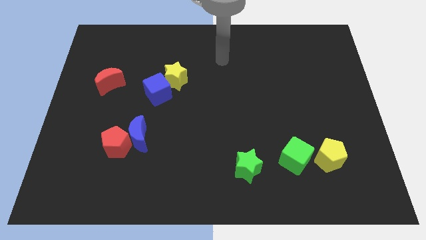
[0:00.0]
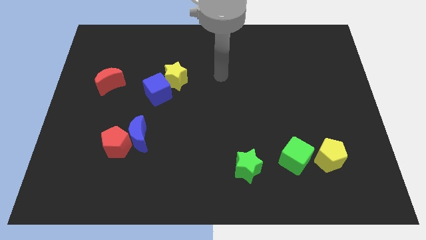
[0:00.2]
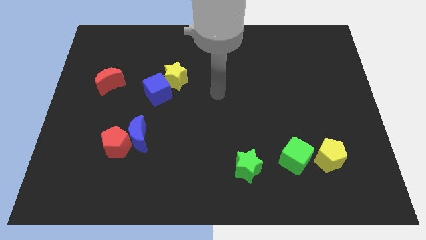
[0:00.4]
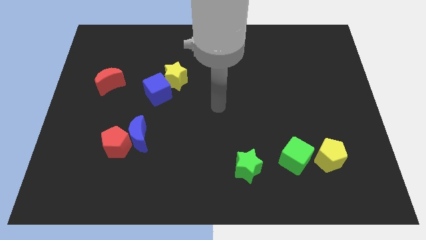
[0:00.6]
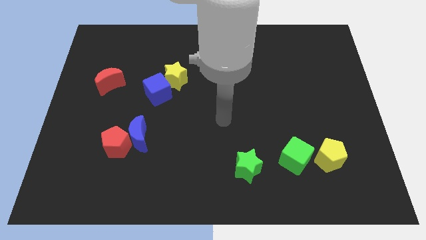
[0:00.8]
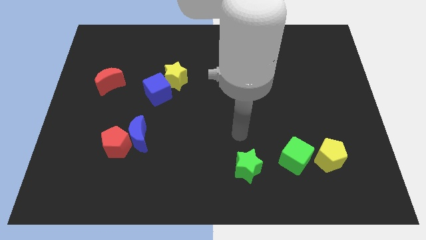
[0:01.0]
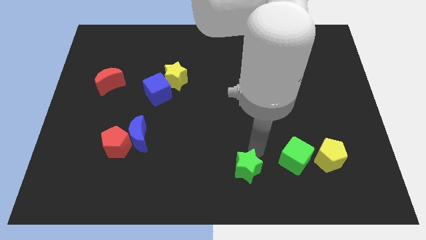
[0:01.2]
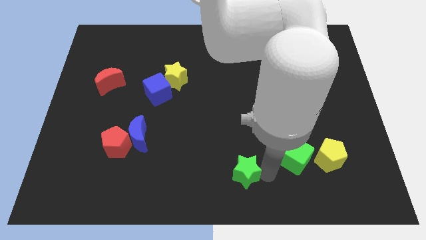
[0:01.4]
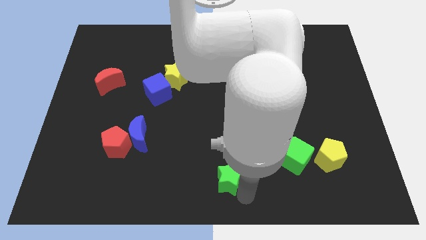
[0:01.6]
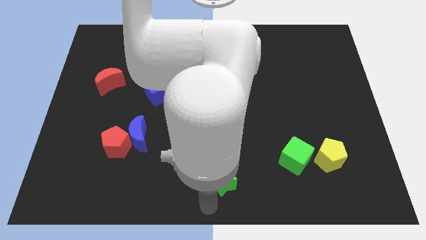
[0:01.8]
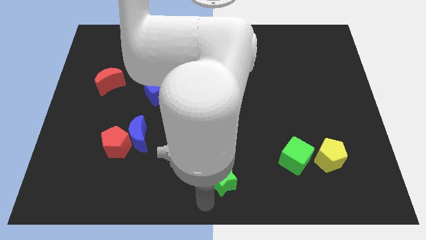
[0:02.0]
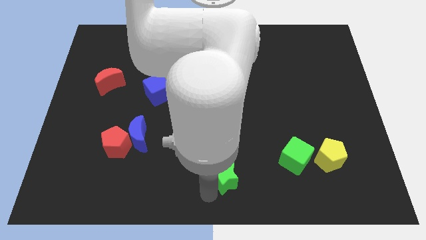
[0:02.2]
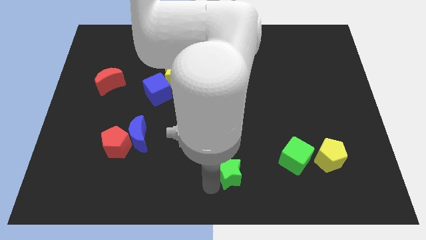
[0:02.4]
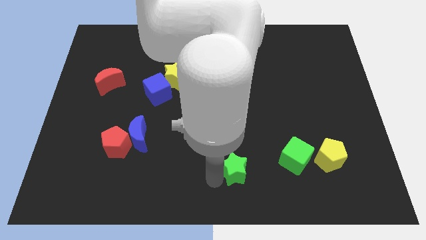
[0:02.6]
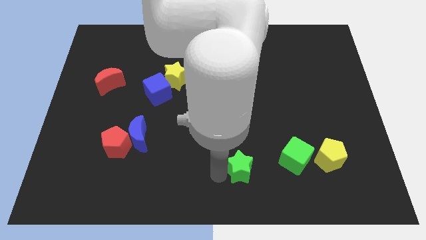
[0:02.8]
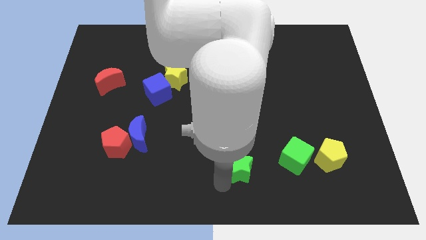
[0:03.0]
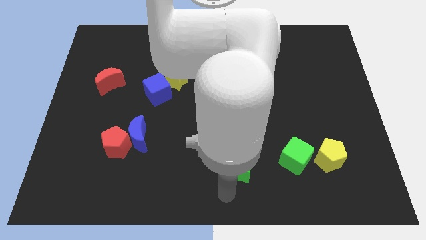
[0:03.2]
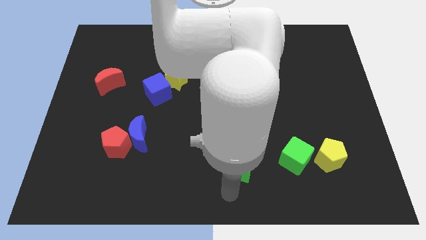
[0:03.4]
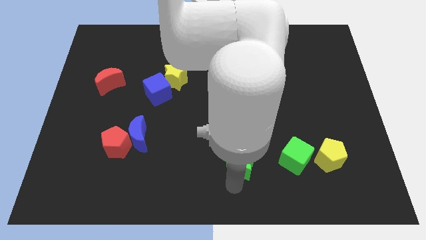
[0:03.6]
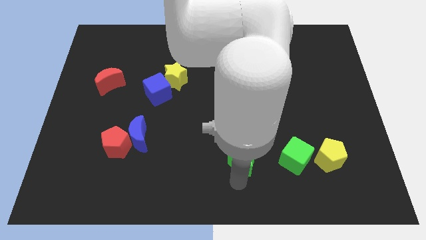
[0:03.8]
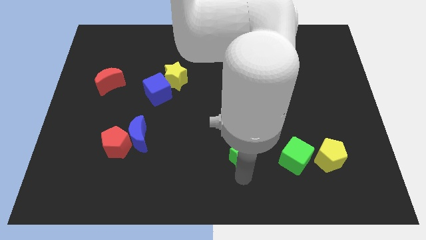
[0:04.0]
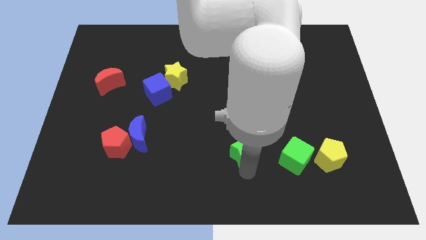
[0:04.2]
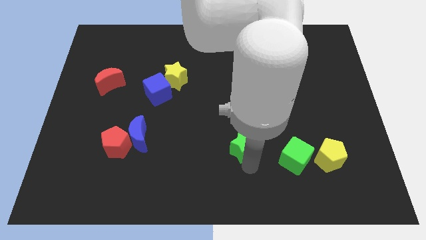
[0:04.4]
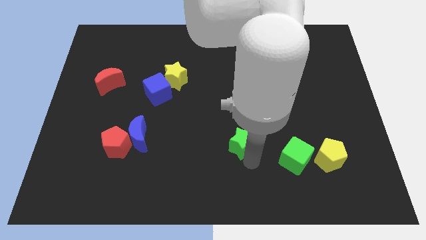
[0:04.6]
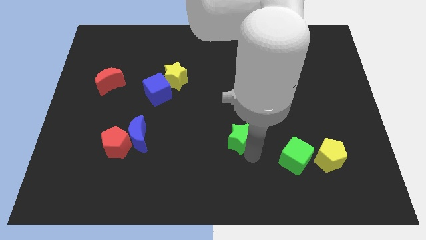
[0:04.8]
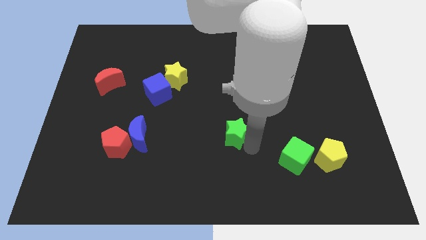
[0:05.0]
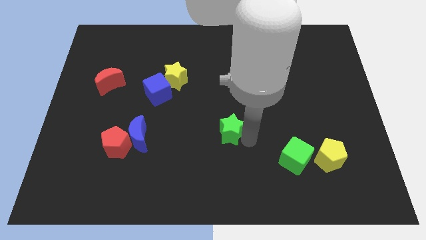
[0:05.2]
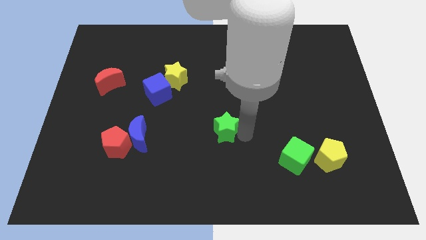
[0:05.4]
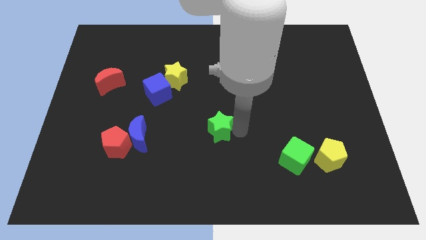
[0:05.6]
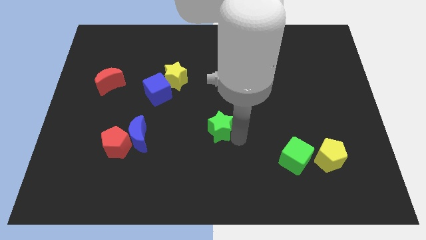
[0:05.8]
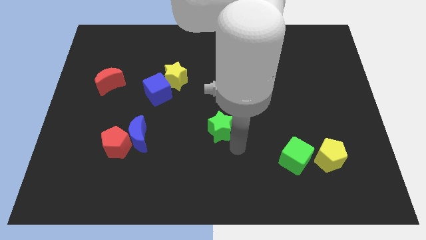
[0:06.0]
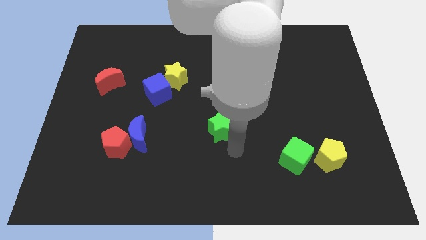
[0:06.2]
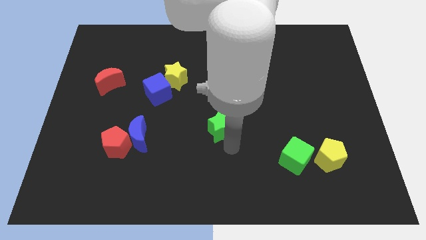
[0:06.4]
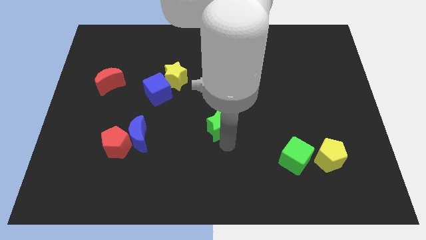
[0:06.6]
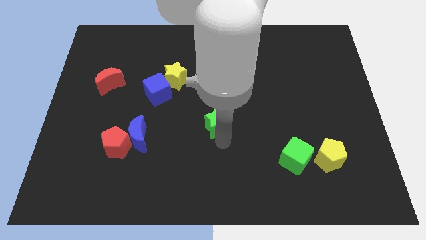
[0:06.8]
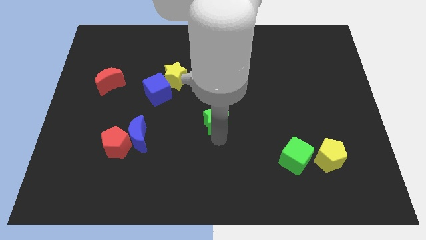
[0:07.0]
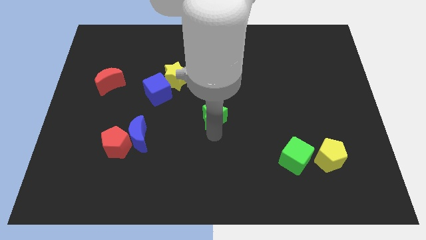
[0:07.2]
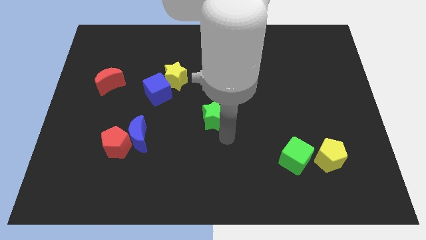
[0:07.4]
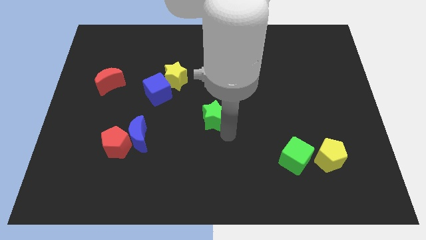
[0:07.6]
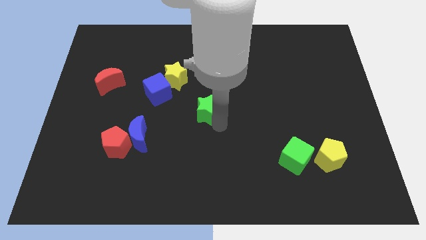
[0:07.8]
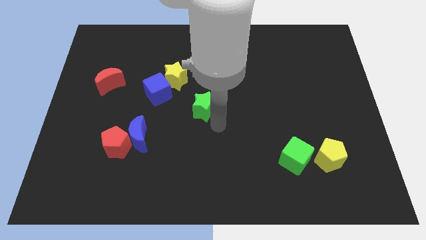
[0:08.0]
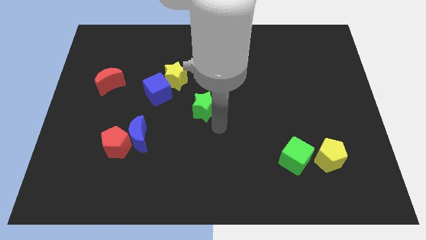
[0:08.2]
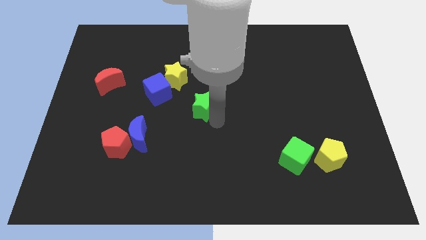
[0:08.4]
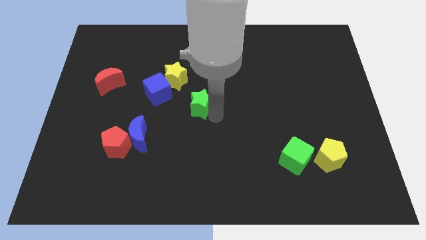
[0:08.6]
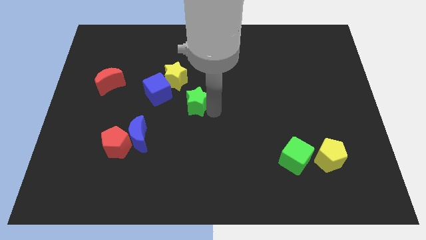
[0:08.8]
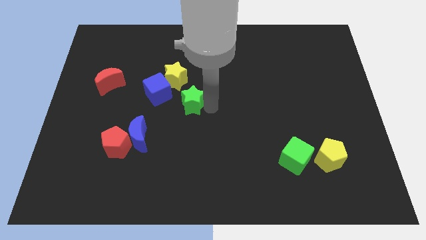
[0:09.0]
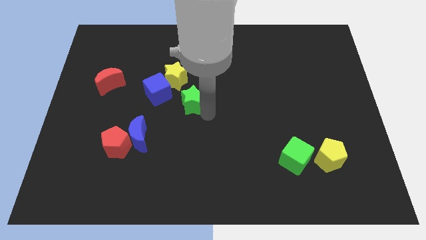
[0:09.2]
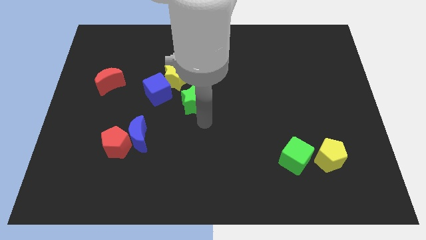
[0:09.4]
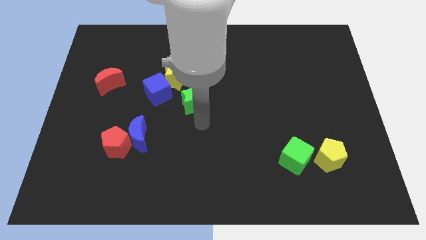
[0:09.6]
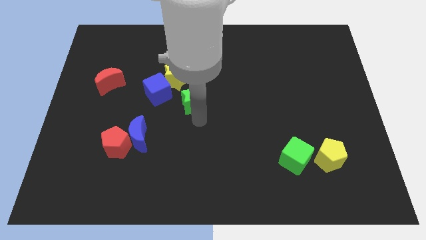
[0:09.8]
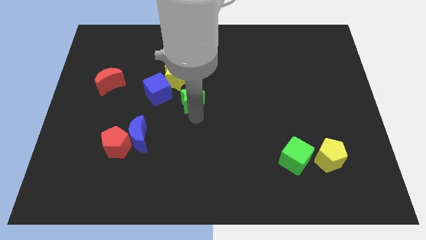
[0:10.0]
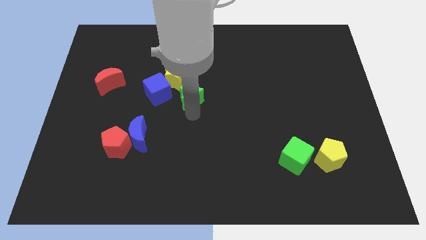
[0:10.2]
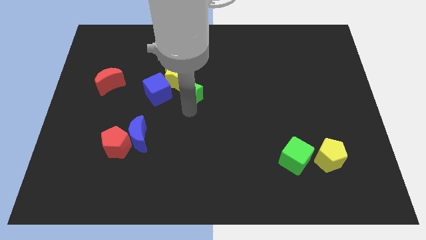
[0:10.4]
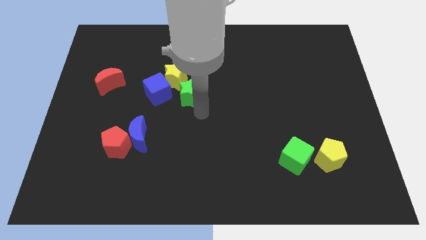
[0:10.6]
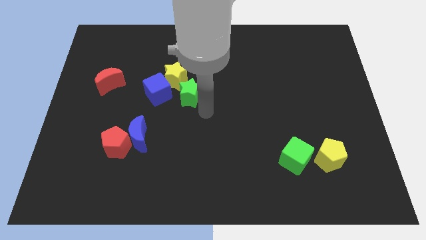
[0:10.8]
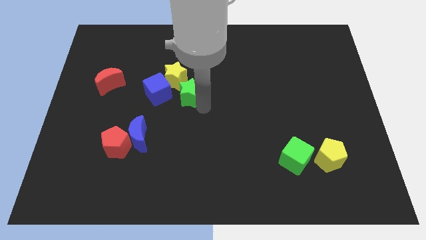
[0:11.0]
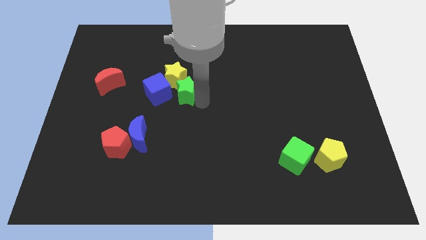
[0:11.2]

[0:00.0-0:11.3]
push the green star to the yellow star

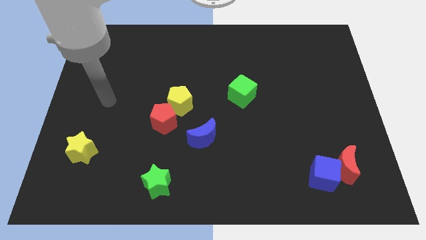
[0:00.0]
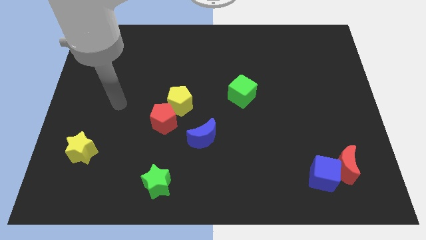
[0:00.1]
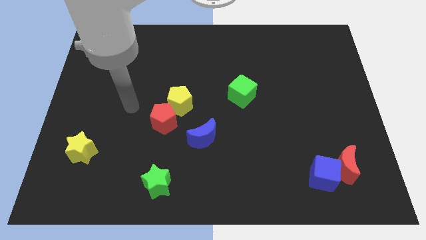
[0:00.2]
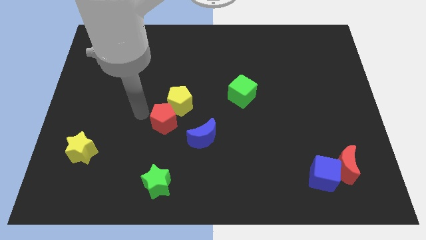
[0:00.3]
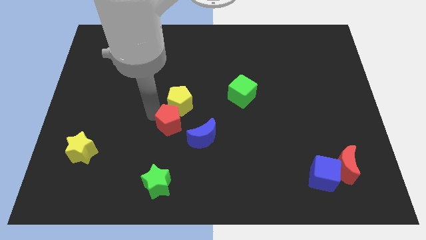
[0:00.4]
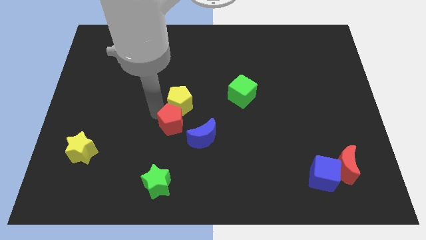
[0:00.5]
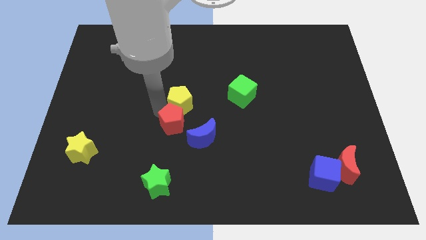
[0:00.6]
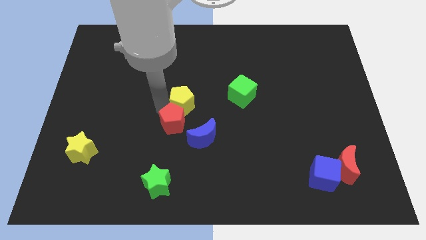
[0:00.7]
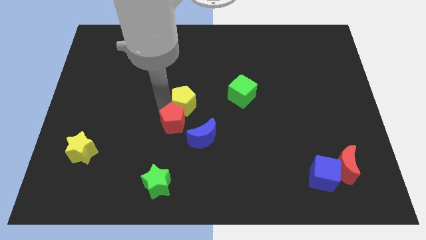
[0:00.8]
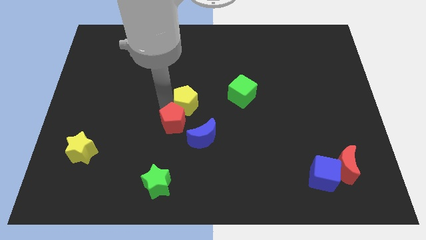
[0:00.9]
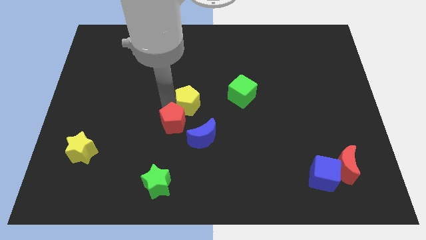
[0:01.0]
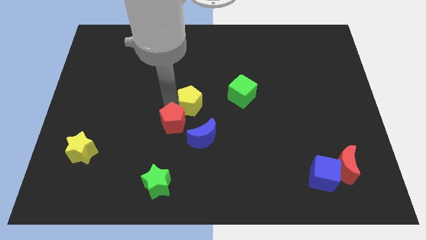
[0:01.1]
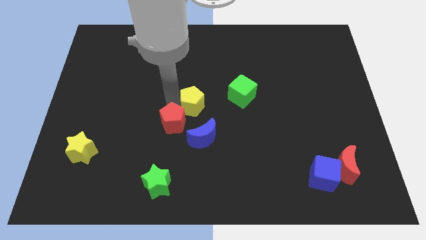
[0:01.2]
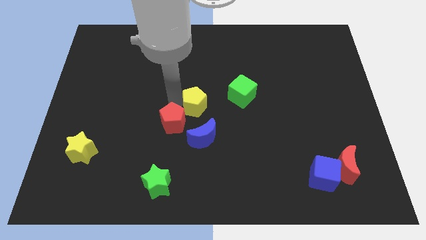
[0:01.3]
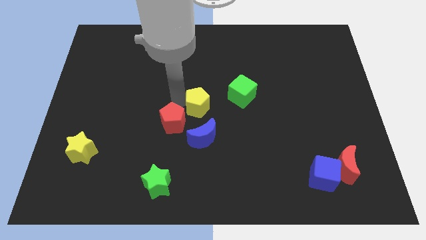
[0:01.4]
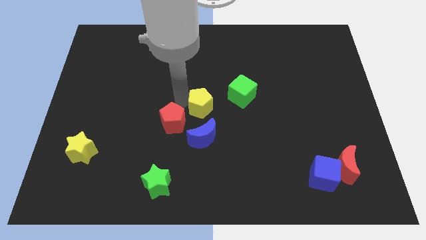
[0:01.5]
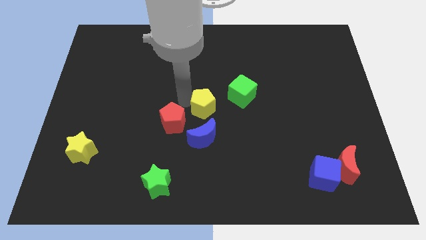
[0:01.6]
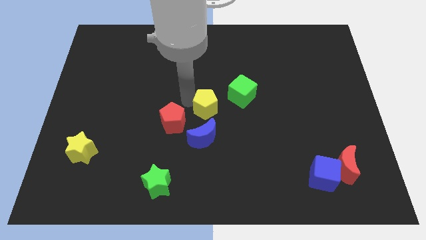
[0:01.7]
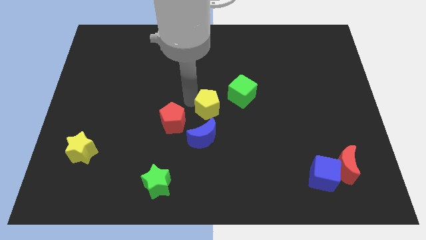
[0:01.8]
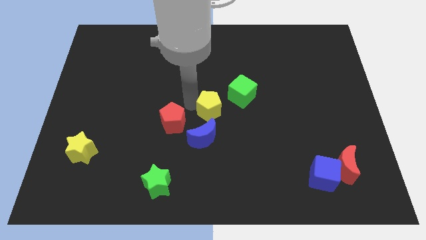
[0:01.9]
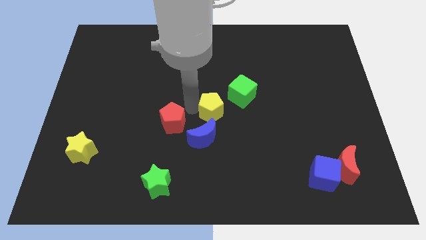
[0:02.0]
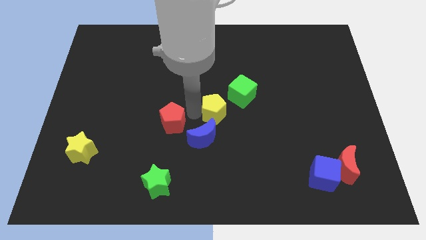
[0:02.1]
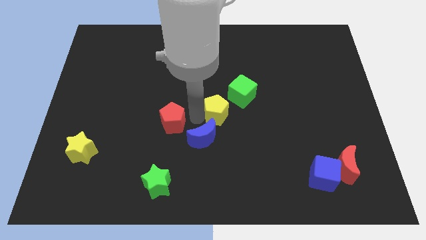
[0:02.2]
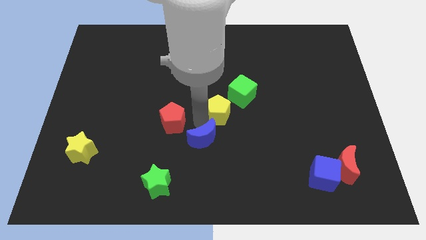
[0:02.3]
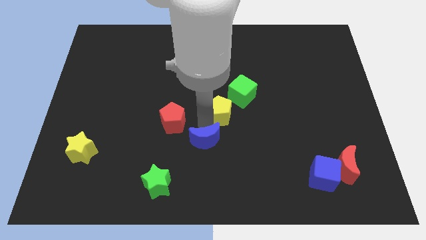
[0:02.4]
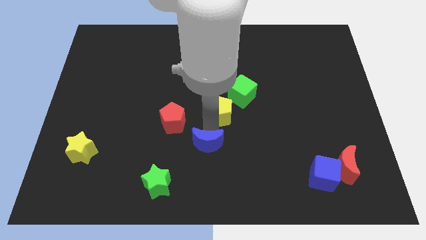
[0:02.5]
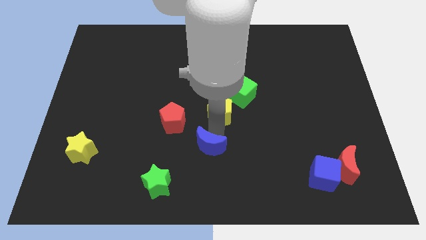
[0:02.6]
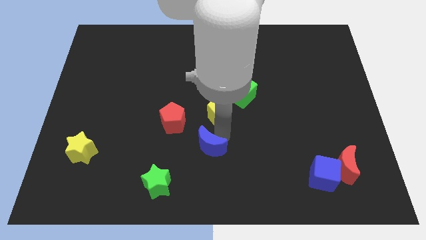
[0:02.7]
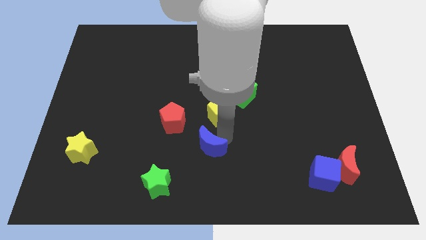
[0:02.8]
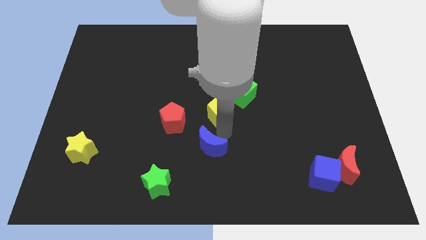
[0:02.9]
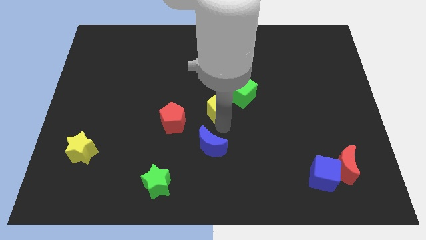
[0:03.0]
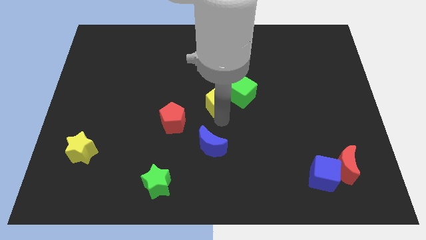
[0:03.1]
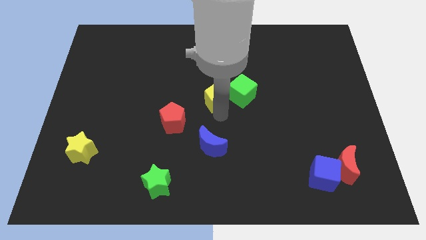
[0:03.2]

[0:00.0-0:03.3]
put the yellow pentagon close to the green cube
